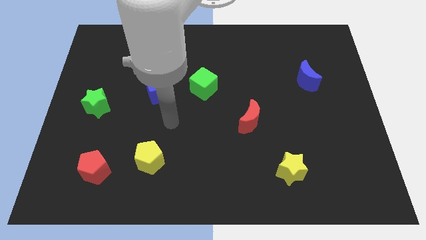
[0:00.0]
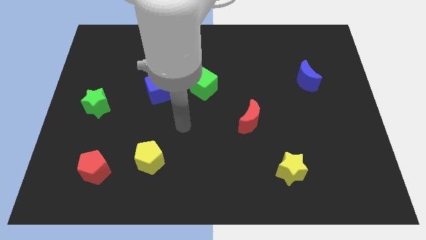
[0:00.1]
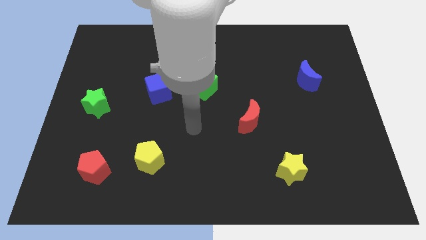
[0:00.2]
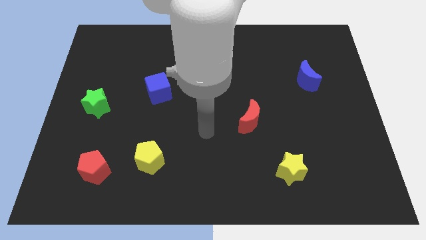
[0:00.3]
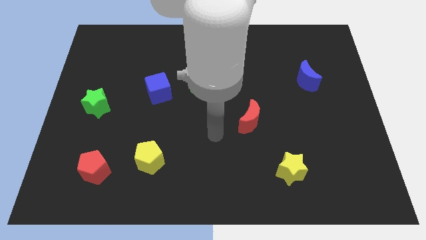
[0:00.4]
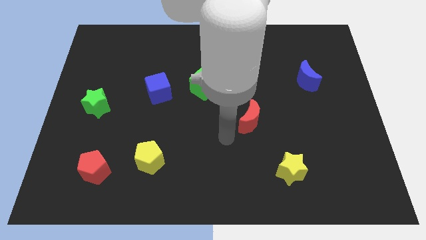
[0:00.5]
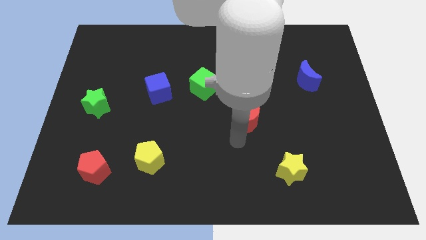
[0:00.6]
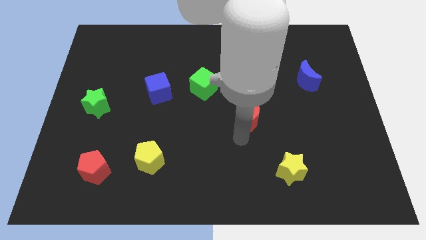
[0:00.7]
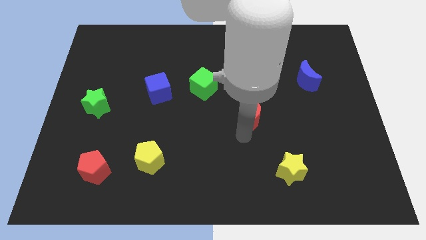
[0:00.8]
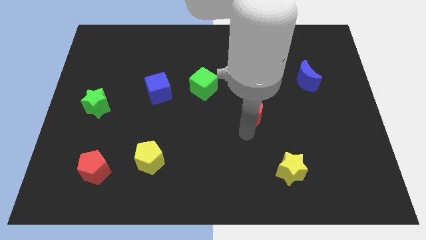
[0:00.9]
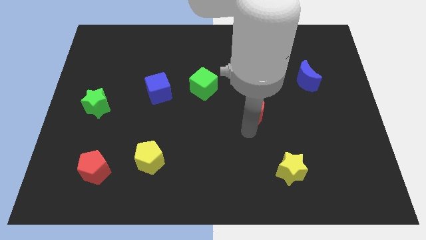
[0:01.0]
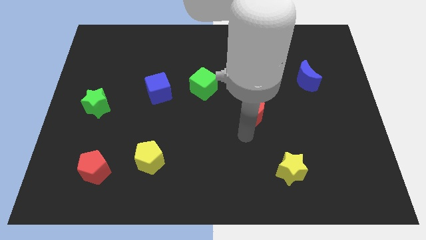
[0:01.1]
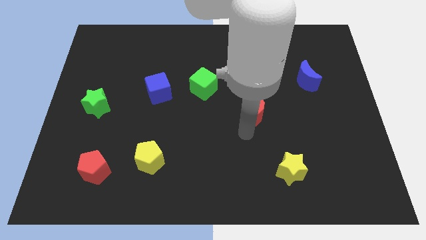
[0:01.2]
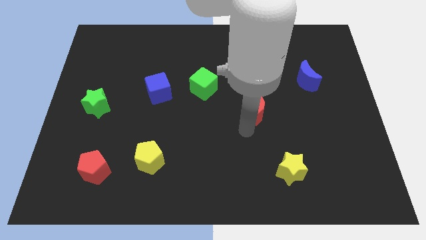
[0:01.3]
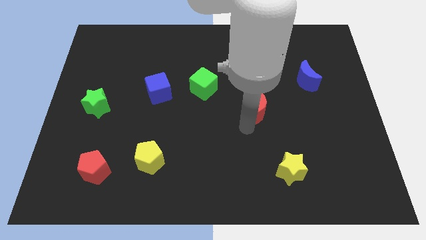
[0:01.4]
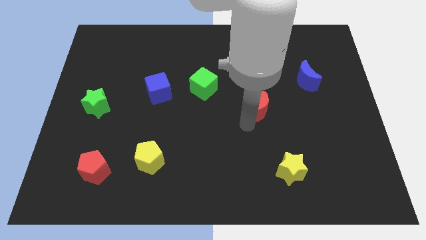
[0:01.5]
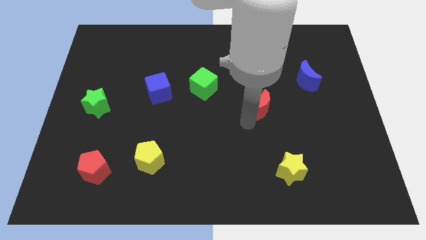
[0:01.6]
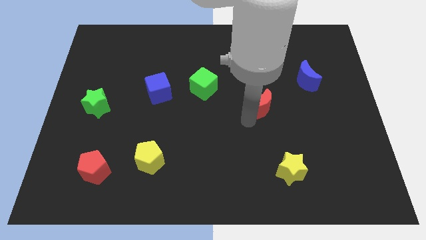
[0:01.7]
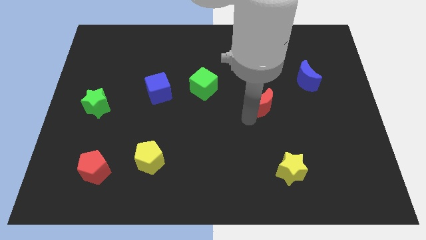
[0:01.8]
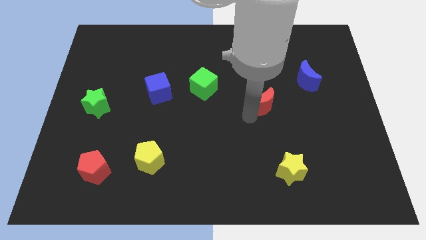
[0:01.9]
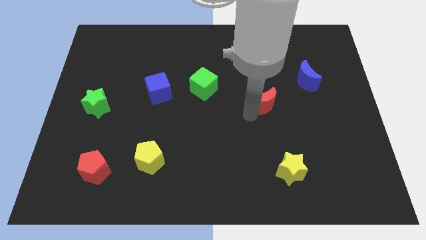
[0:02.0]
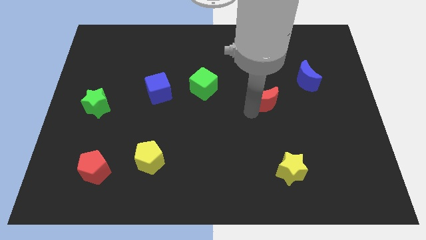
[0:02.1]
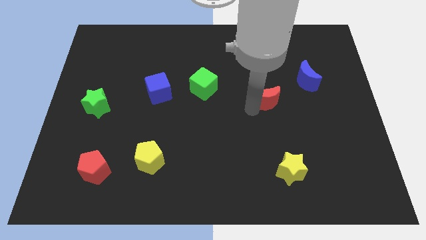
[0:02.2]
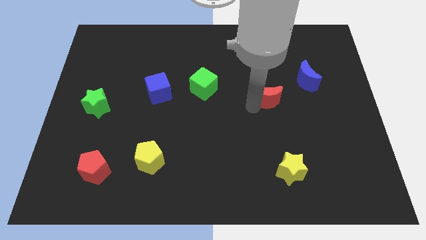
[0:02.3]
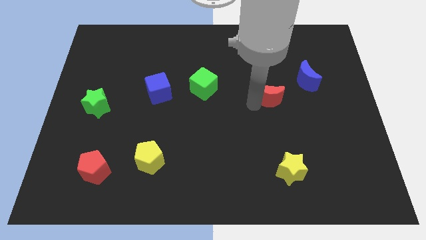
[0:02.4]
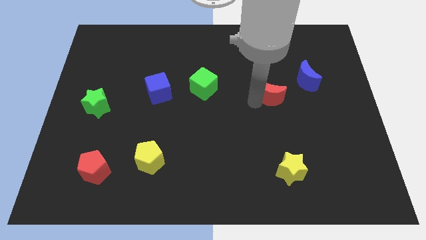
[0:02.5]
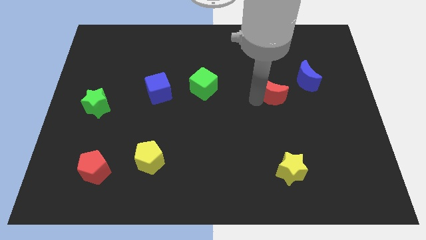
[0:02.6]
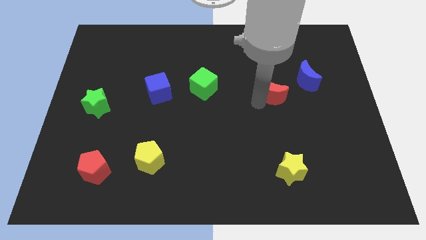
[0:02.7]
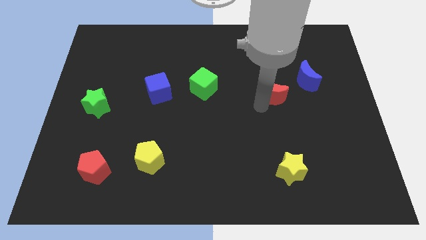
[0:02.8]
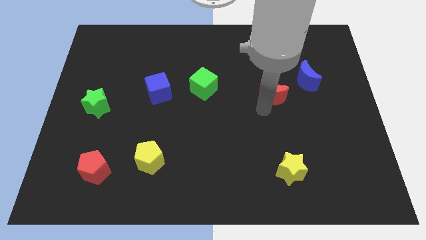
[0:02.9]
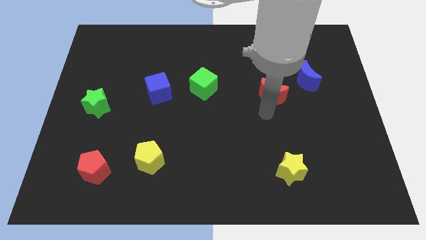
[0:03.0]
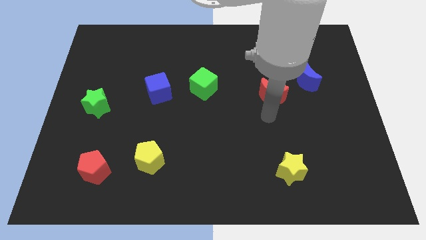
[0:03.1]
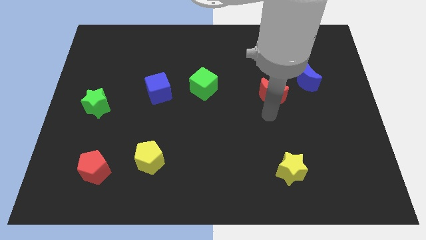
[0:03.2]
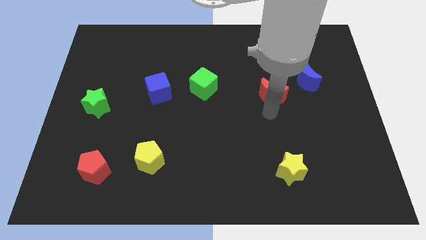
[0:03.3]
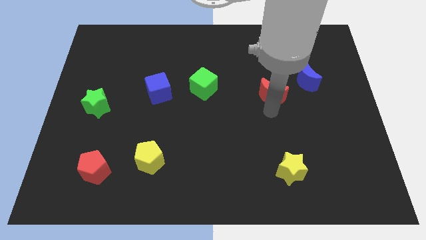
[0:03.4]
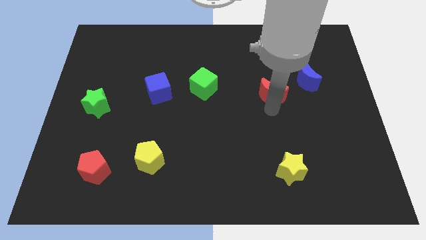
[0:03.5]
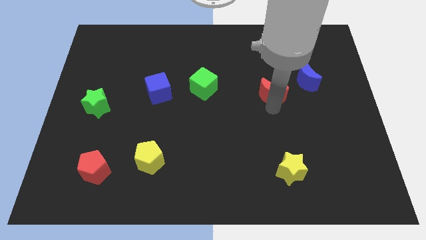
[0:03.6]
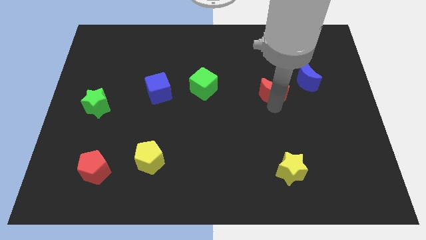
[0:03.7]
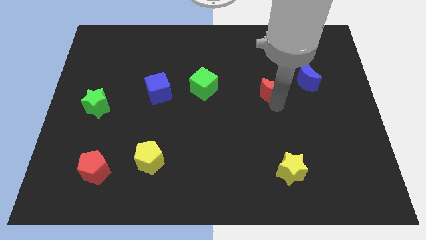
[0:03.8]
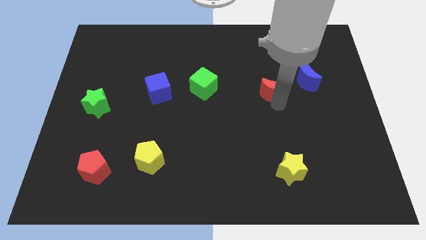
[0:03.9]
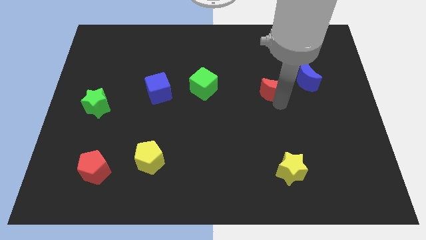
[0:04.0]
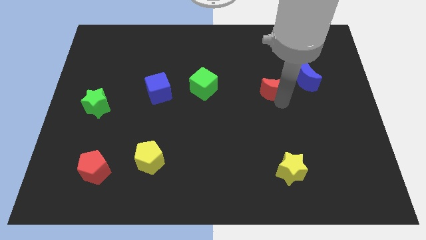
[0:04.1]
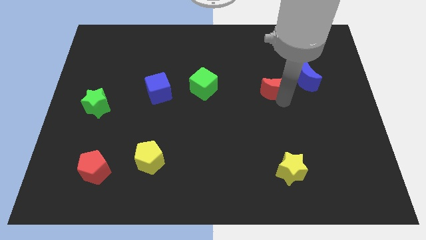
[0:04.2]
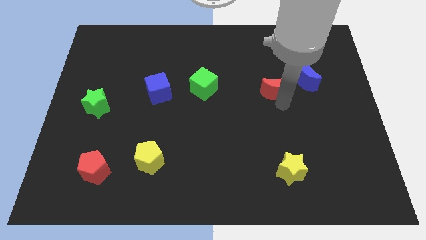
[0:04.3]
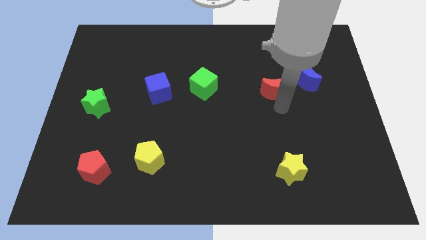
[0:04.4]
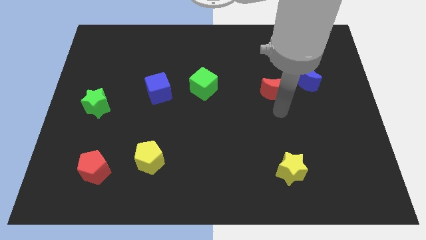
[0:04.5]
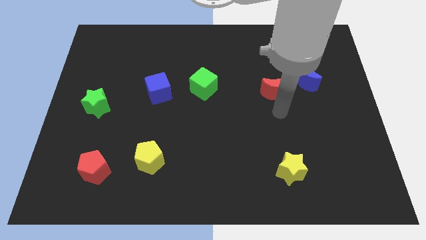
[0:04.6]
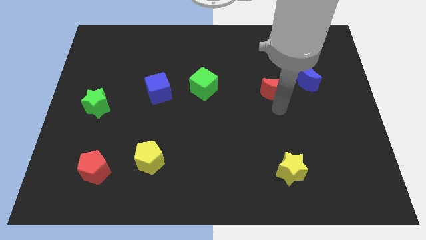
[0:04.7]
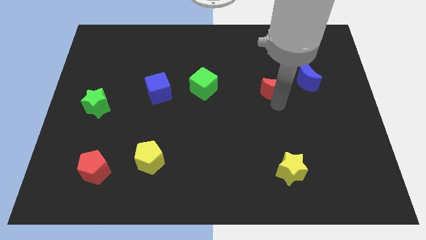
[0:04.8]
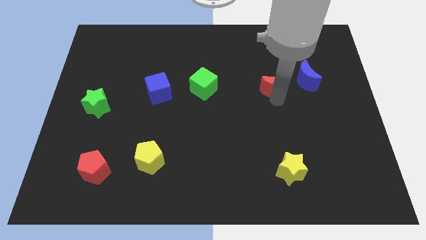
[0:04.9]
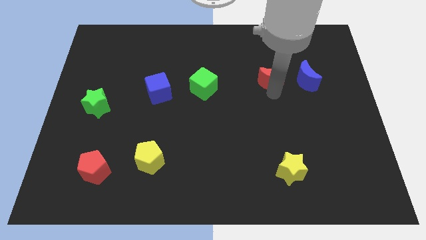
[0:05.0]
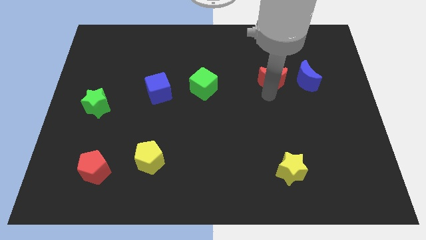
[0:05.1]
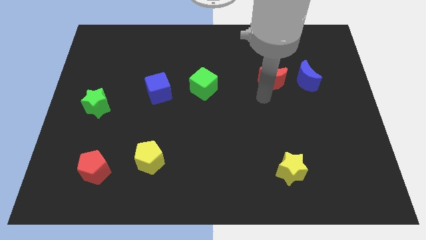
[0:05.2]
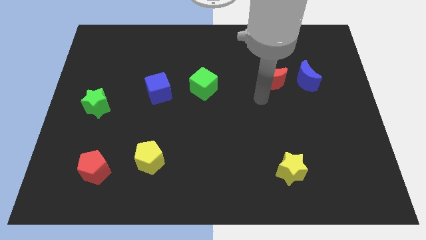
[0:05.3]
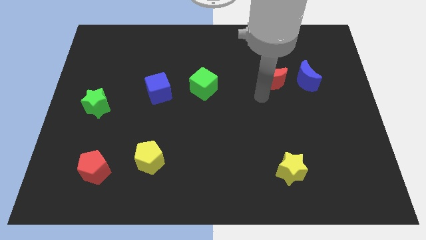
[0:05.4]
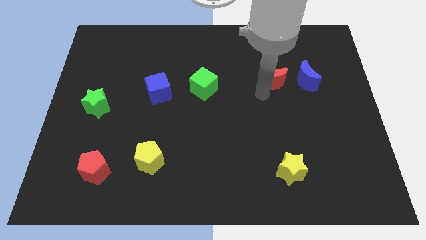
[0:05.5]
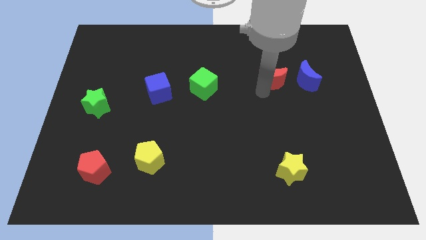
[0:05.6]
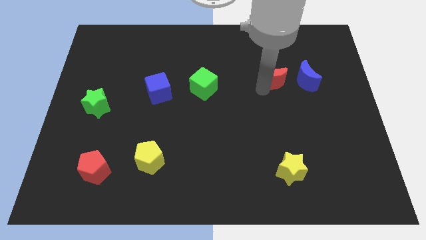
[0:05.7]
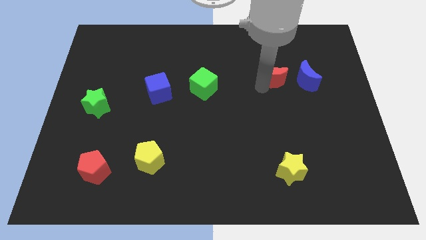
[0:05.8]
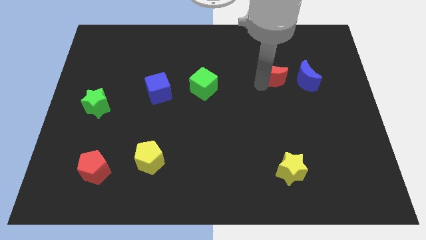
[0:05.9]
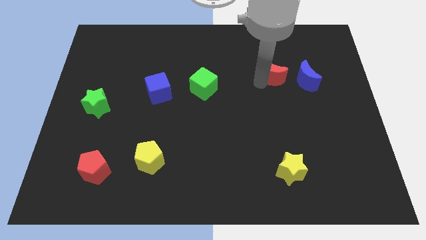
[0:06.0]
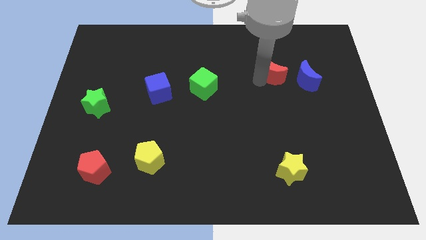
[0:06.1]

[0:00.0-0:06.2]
put the red moon diagonally up and to the left of the blue moon

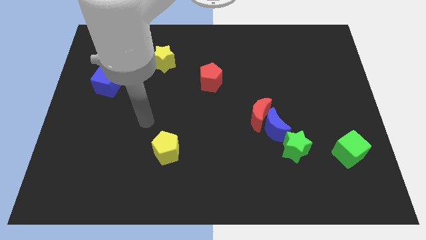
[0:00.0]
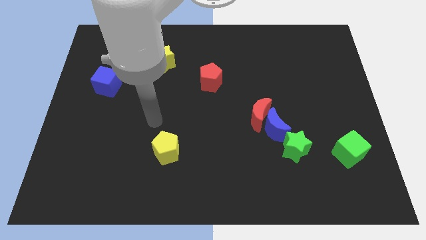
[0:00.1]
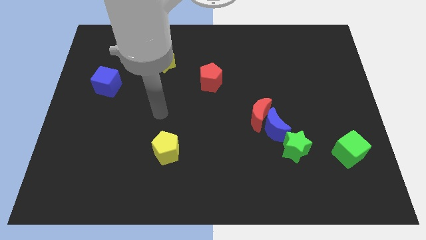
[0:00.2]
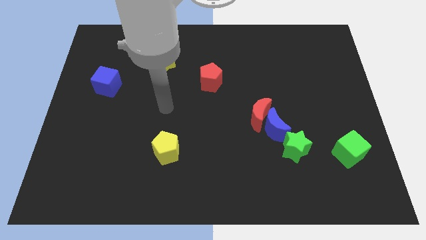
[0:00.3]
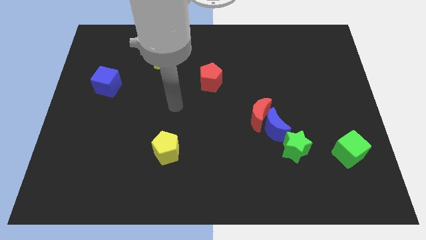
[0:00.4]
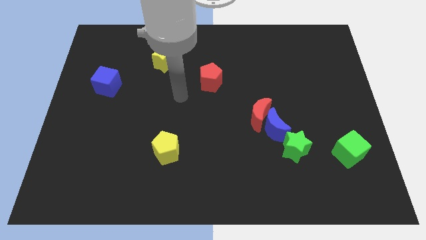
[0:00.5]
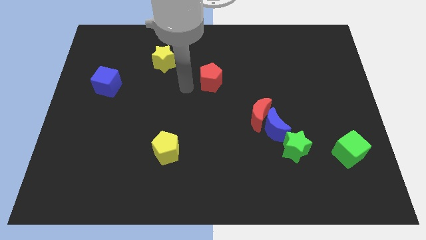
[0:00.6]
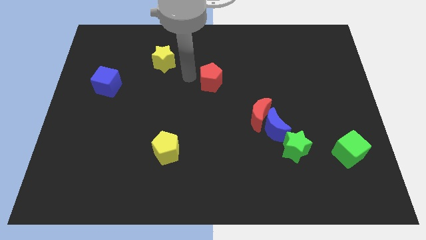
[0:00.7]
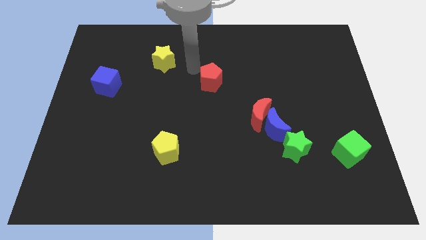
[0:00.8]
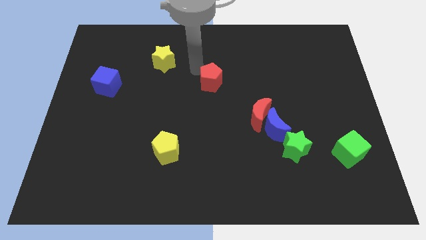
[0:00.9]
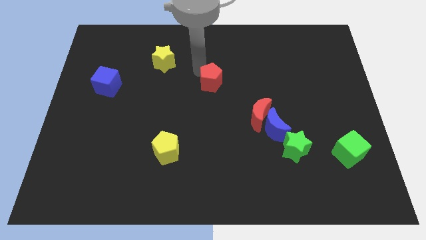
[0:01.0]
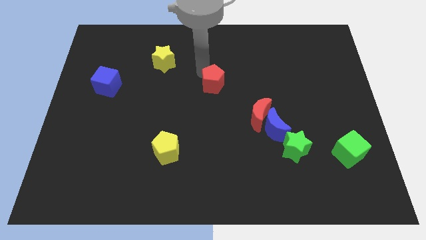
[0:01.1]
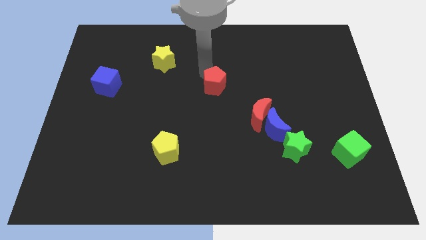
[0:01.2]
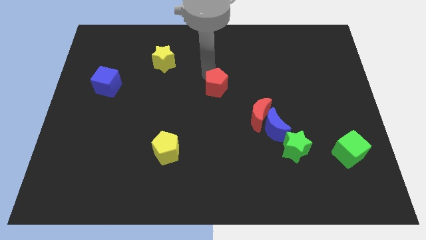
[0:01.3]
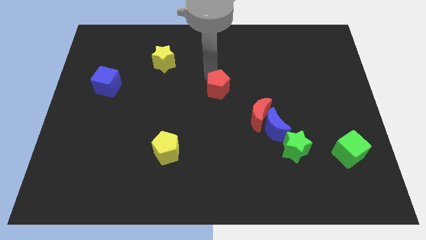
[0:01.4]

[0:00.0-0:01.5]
push the red pentagon to the top left of the red moon

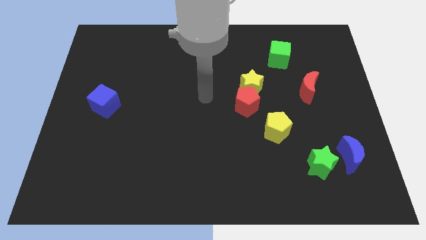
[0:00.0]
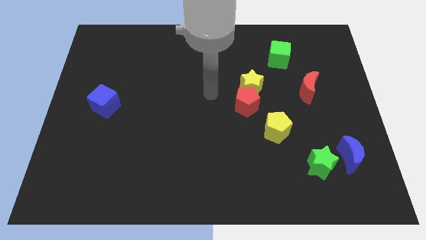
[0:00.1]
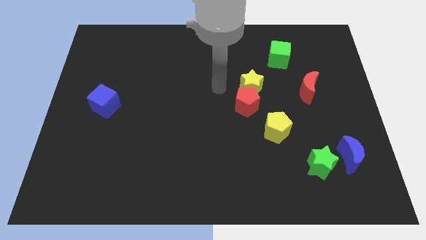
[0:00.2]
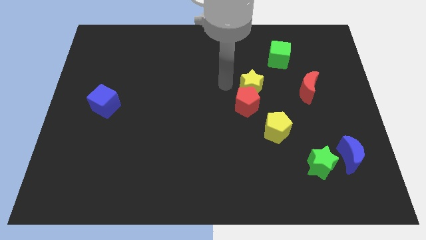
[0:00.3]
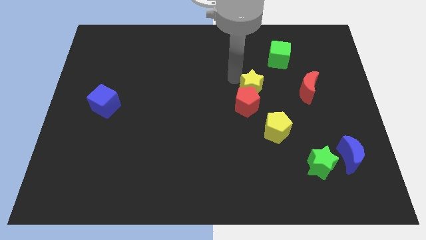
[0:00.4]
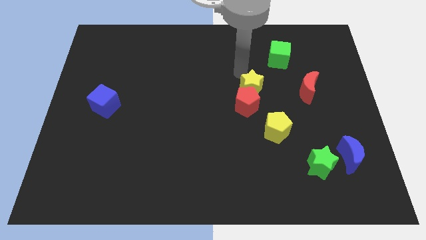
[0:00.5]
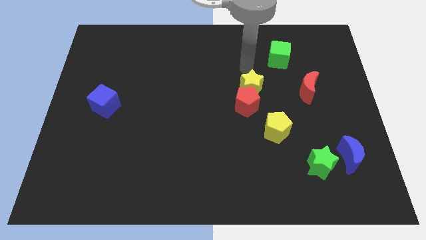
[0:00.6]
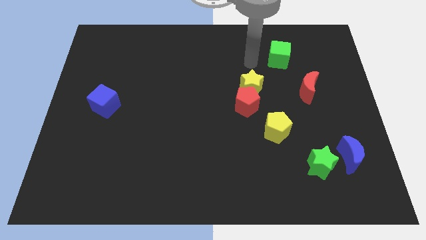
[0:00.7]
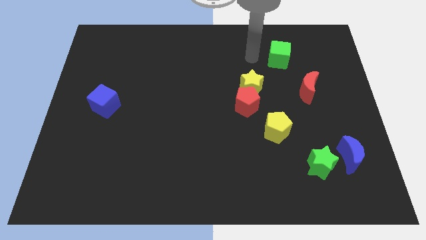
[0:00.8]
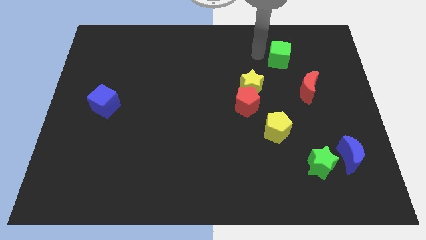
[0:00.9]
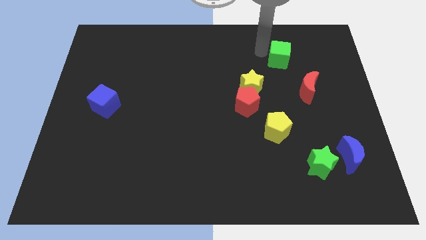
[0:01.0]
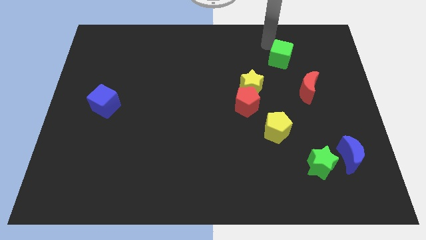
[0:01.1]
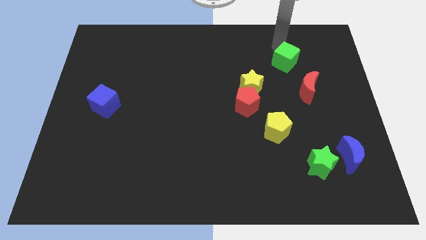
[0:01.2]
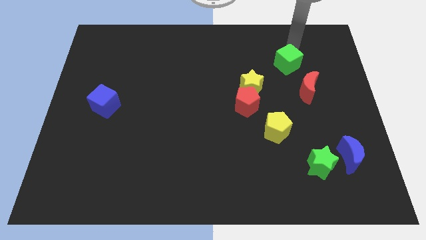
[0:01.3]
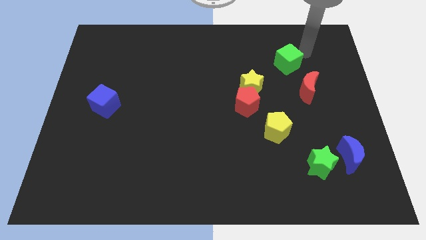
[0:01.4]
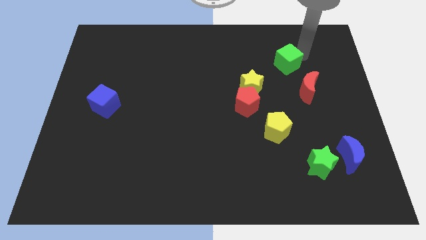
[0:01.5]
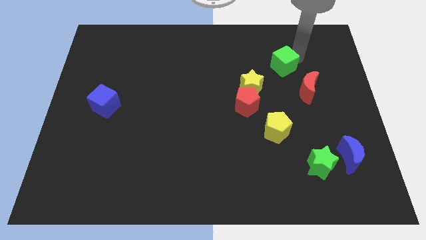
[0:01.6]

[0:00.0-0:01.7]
slide the green cube to the top right side of the yellow star
